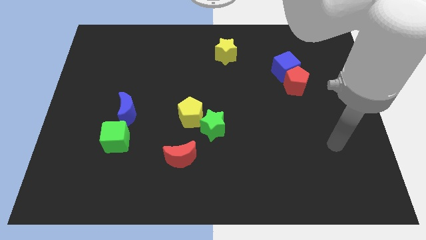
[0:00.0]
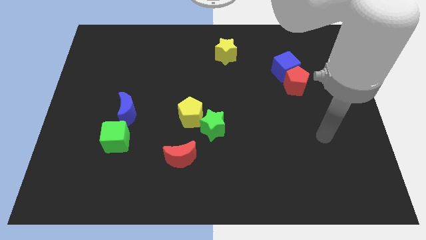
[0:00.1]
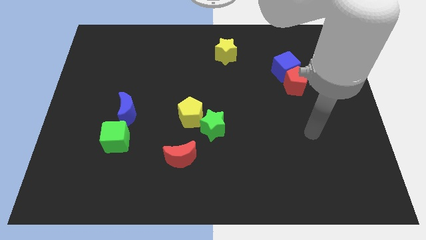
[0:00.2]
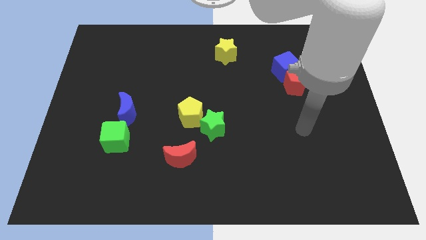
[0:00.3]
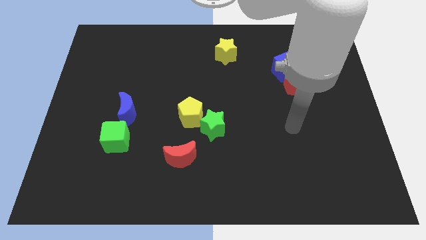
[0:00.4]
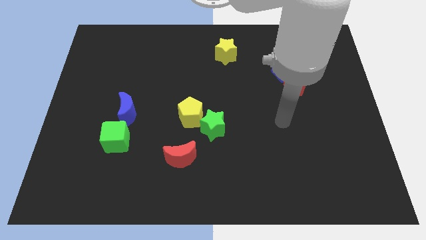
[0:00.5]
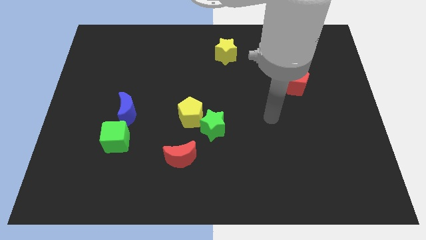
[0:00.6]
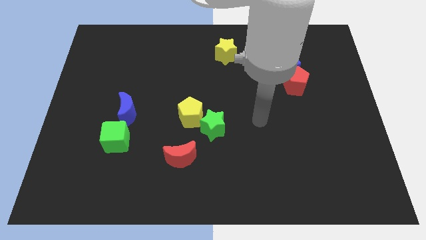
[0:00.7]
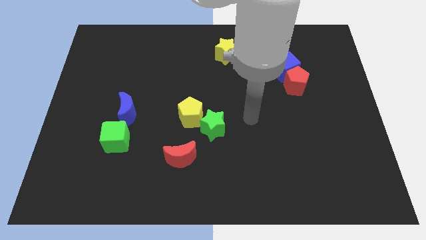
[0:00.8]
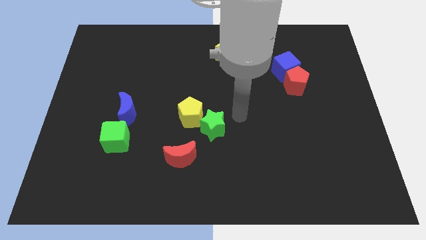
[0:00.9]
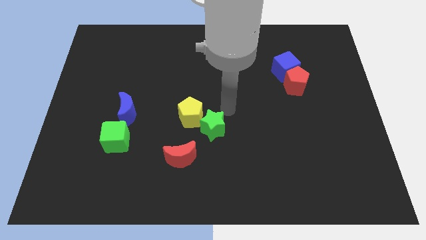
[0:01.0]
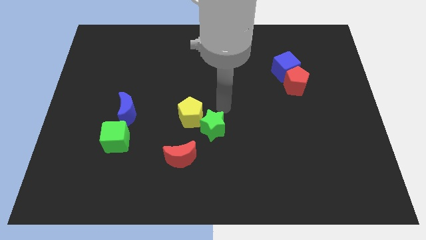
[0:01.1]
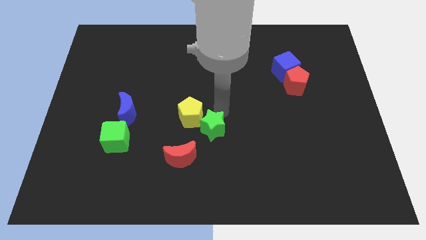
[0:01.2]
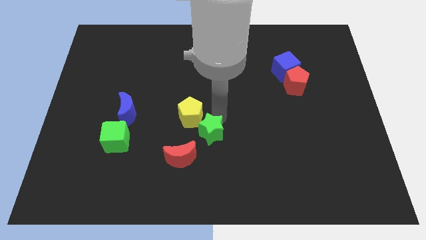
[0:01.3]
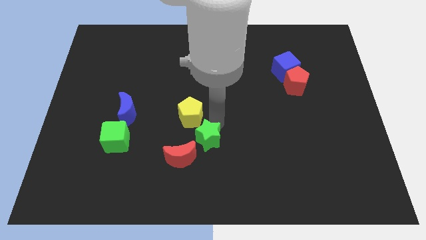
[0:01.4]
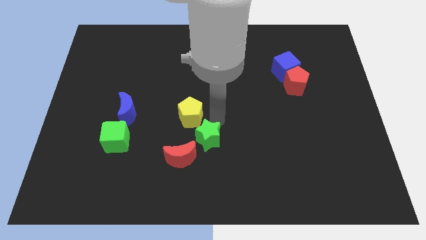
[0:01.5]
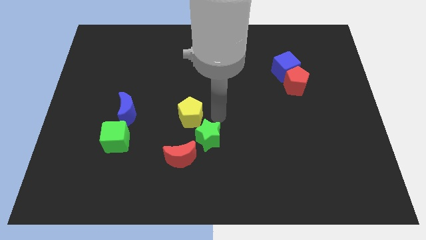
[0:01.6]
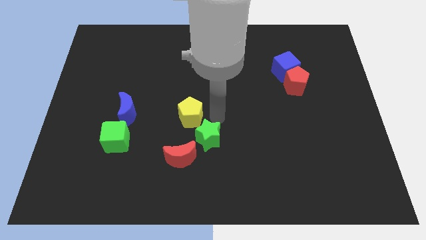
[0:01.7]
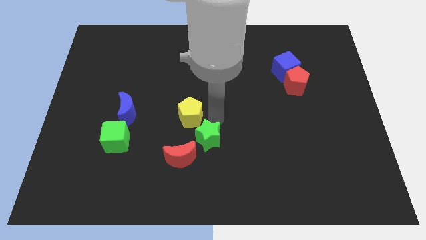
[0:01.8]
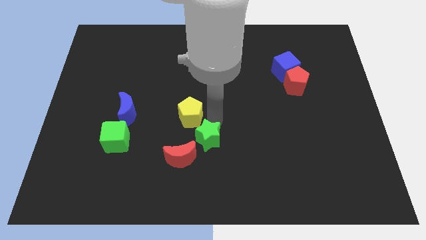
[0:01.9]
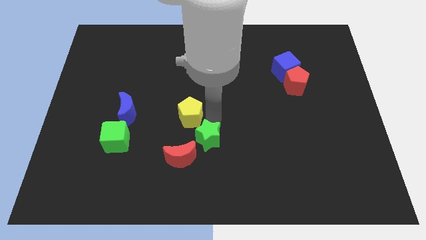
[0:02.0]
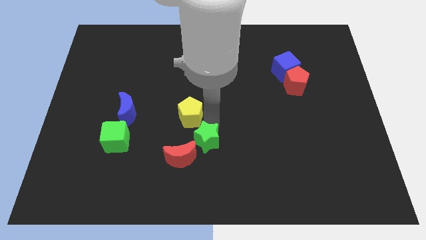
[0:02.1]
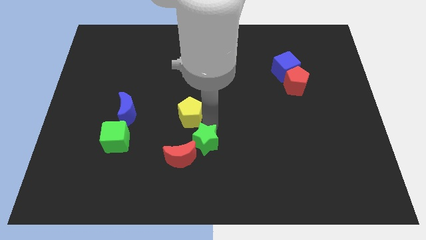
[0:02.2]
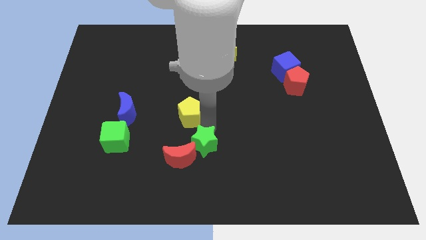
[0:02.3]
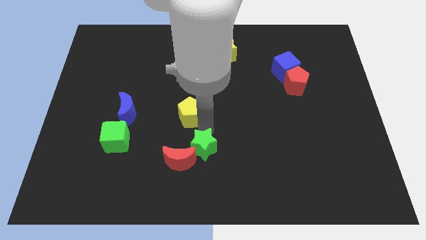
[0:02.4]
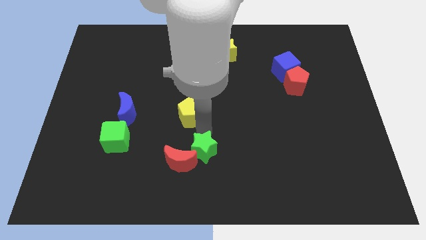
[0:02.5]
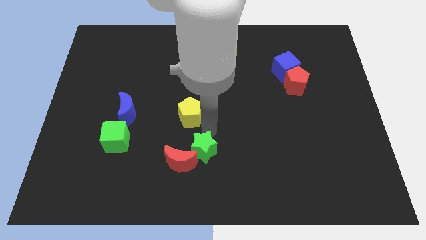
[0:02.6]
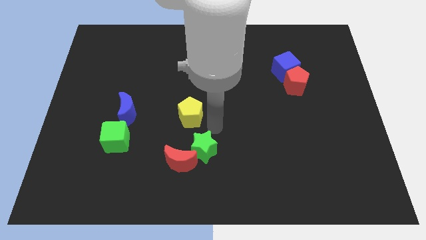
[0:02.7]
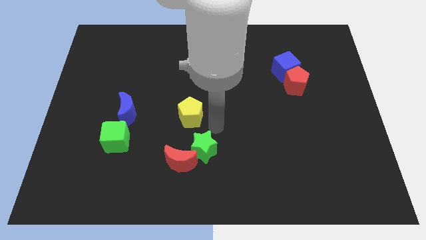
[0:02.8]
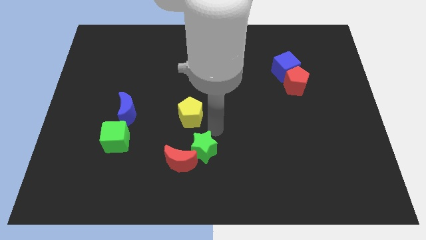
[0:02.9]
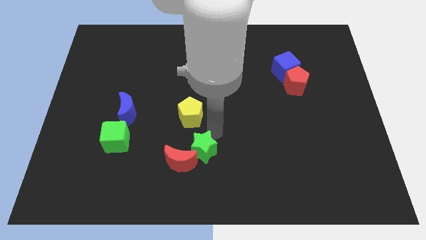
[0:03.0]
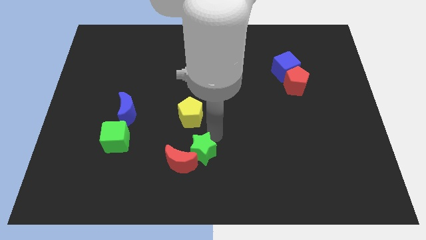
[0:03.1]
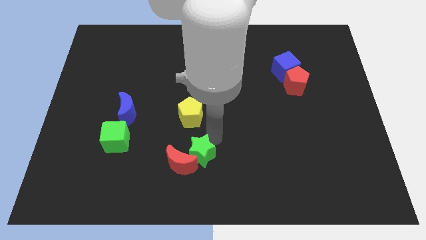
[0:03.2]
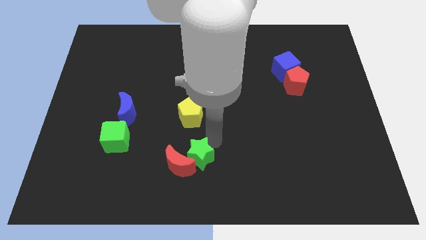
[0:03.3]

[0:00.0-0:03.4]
push the green star downwards and then to the left a little bit

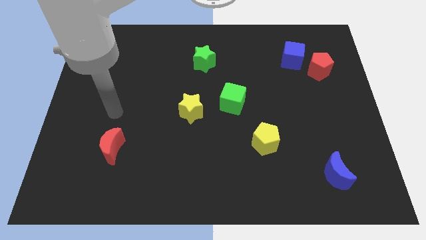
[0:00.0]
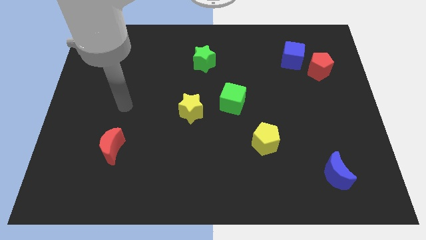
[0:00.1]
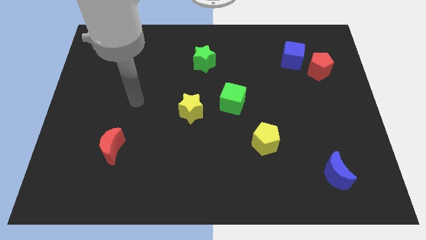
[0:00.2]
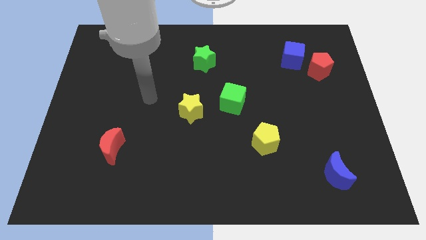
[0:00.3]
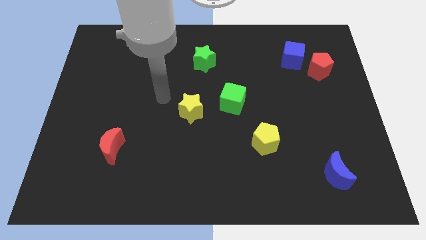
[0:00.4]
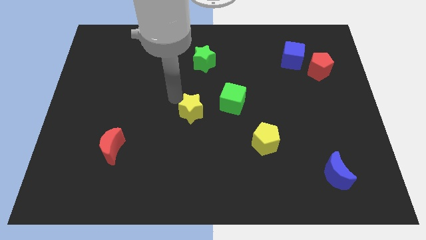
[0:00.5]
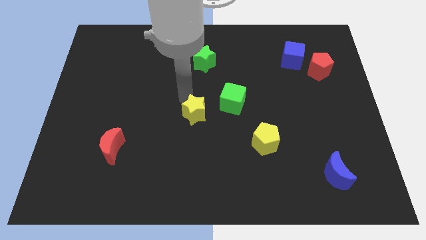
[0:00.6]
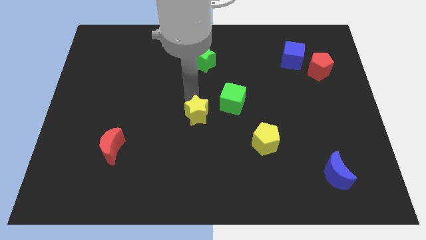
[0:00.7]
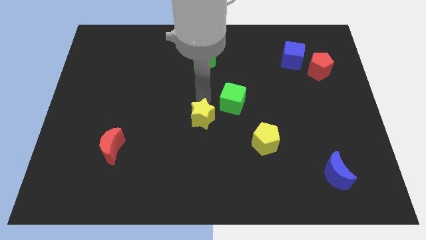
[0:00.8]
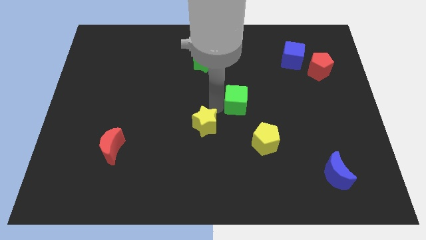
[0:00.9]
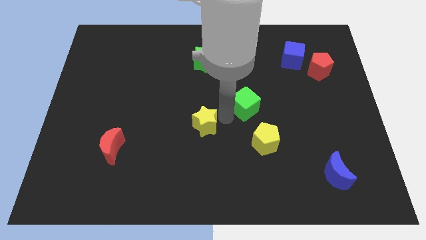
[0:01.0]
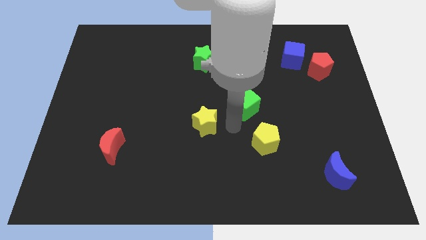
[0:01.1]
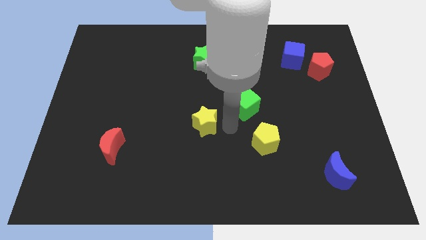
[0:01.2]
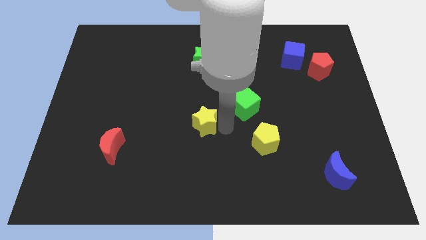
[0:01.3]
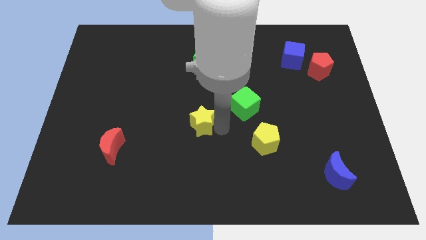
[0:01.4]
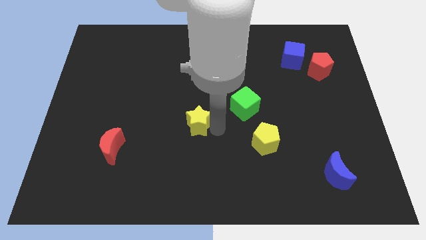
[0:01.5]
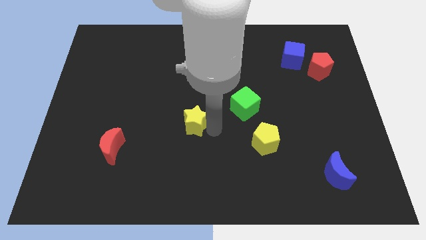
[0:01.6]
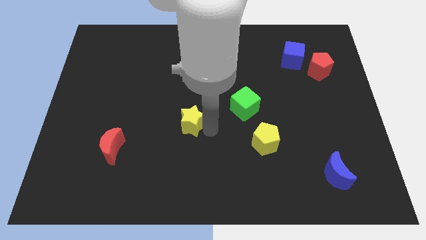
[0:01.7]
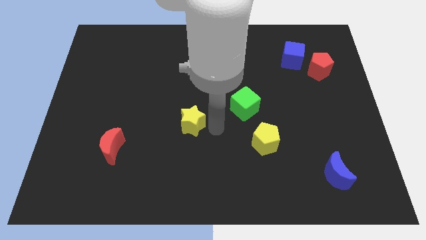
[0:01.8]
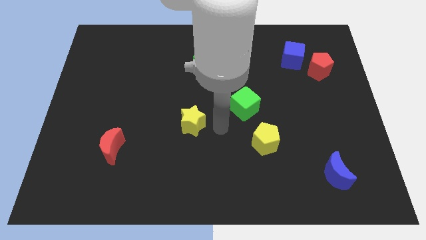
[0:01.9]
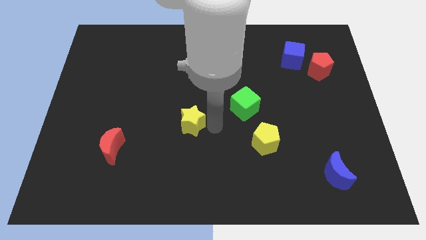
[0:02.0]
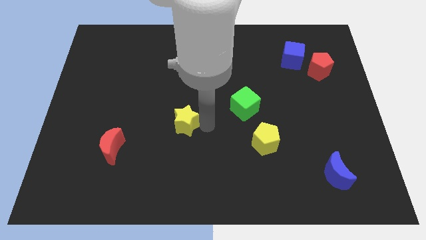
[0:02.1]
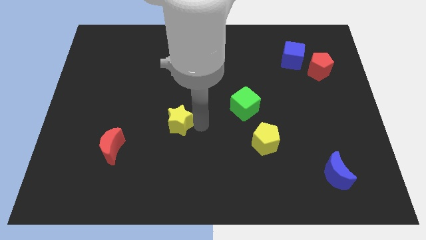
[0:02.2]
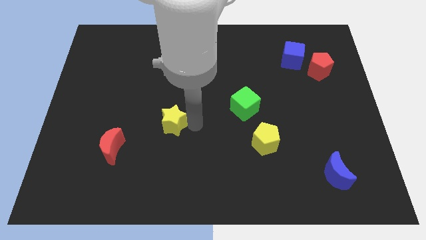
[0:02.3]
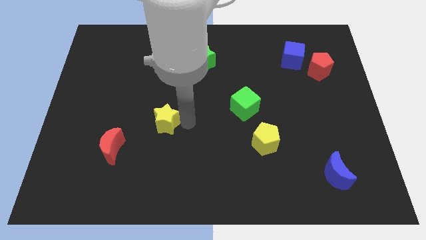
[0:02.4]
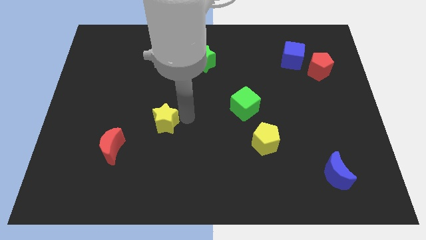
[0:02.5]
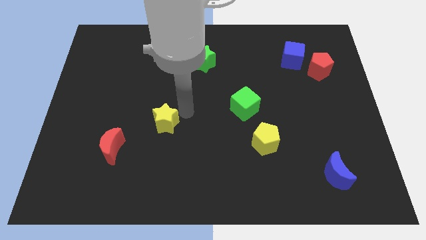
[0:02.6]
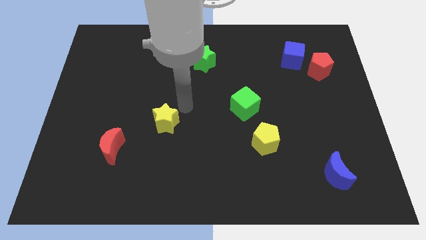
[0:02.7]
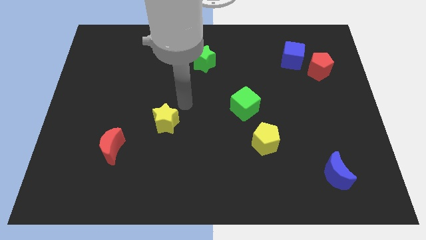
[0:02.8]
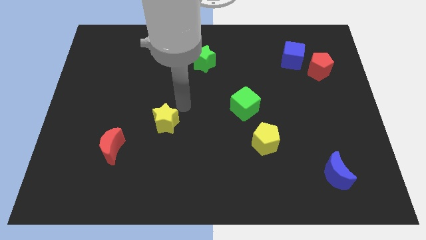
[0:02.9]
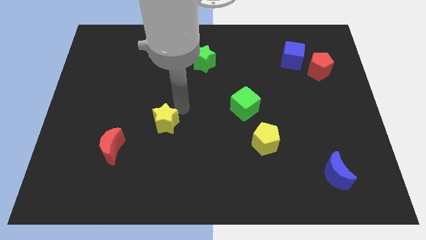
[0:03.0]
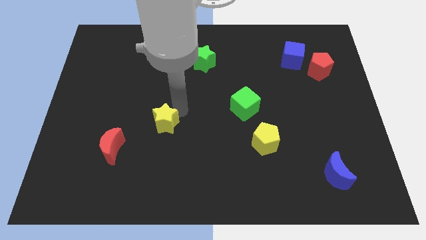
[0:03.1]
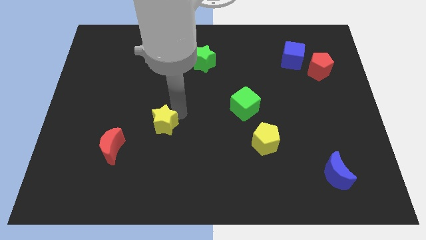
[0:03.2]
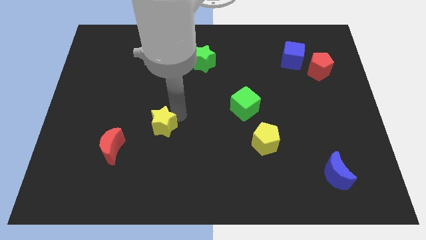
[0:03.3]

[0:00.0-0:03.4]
move the yellow star diagonally down and to the left a little

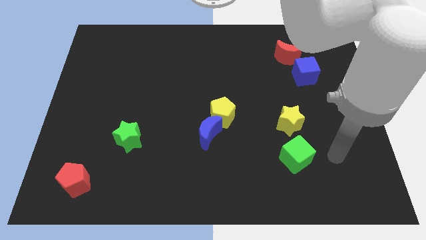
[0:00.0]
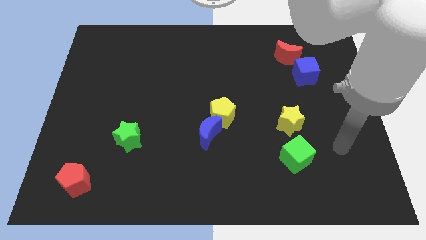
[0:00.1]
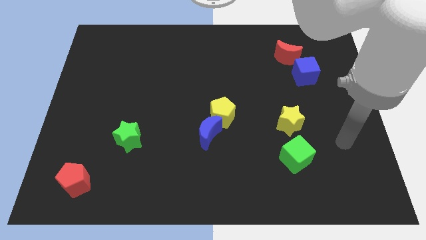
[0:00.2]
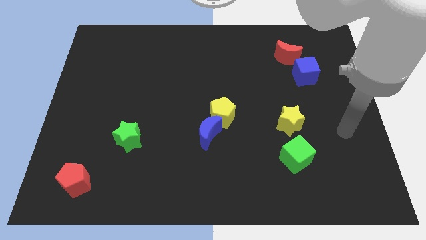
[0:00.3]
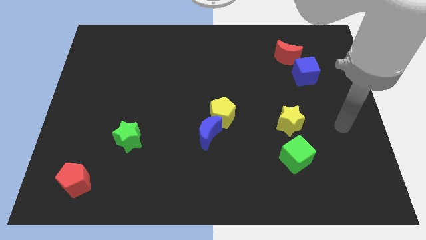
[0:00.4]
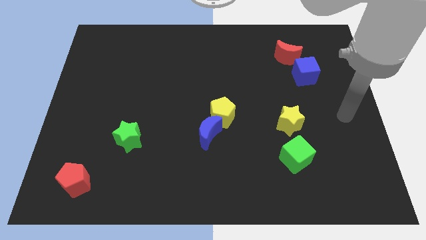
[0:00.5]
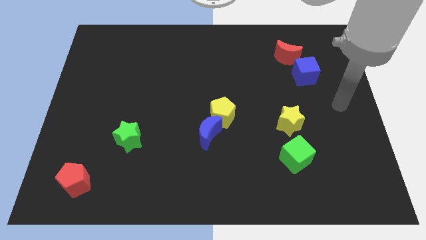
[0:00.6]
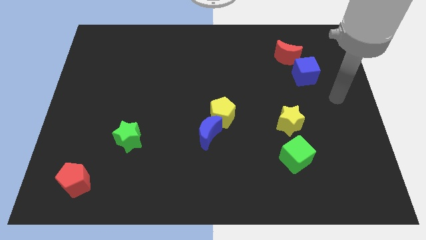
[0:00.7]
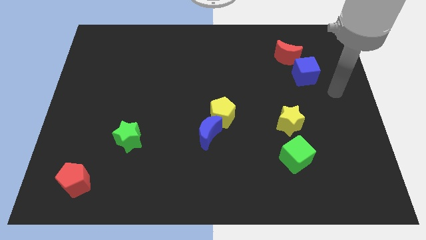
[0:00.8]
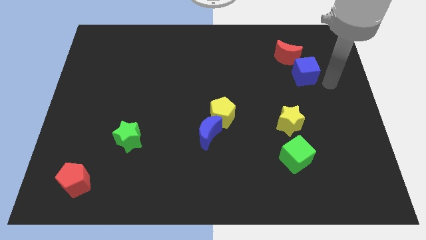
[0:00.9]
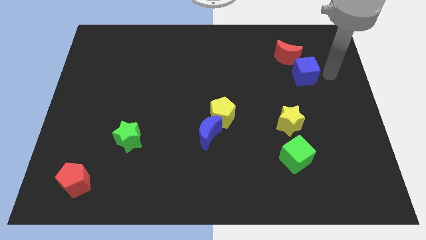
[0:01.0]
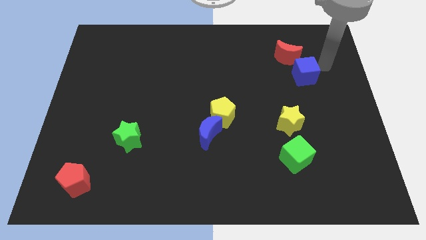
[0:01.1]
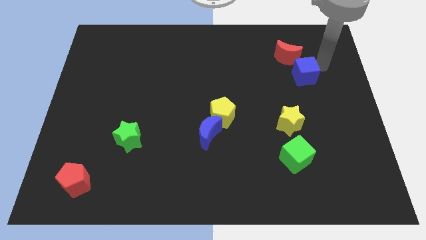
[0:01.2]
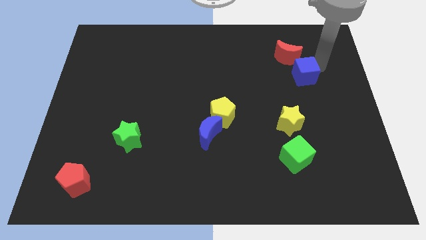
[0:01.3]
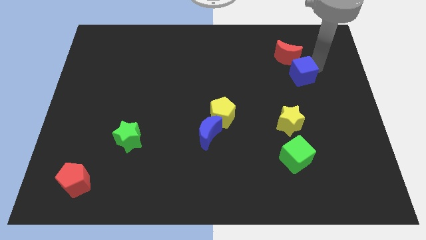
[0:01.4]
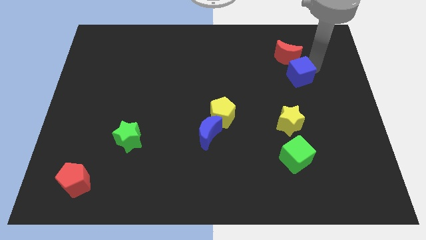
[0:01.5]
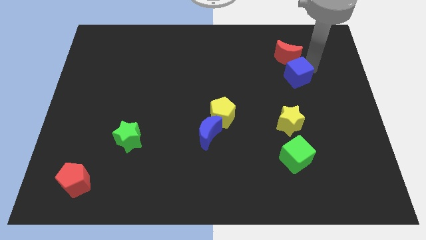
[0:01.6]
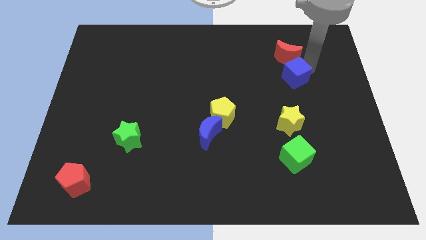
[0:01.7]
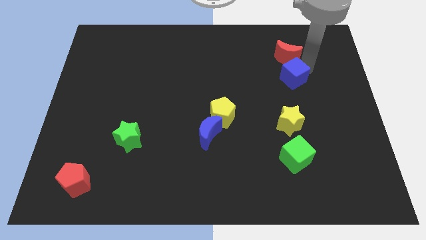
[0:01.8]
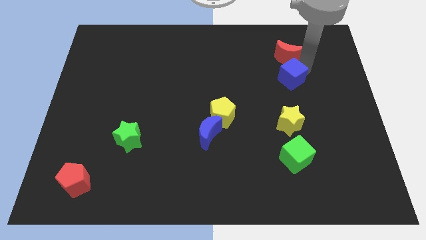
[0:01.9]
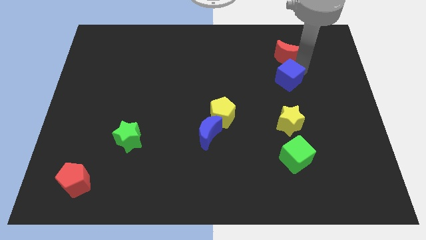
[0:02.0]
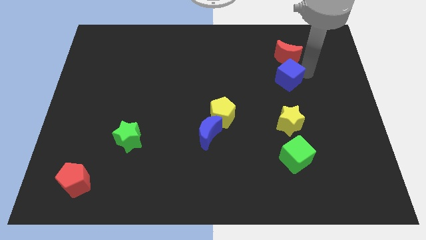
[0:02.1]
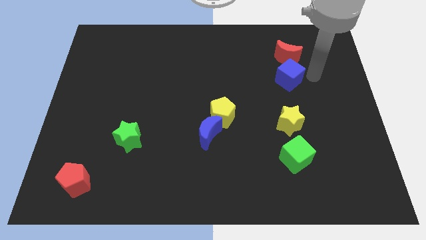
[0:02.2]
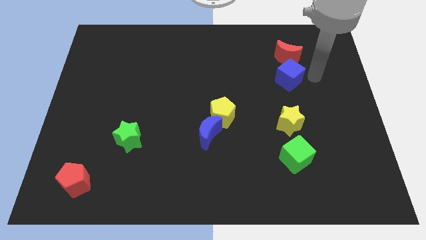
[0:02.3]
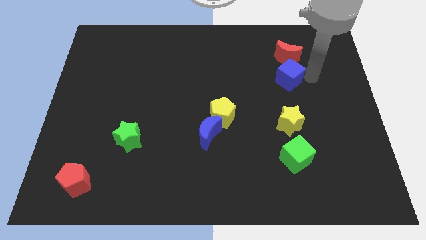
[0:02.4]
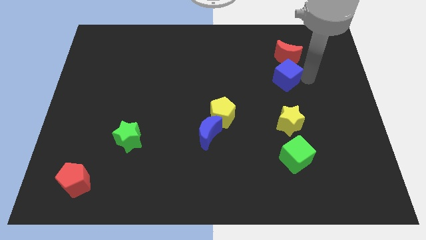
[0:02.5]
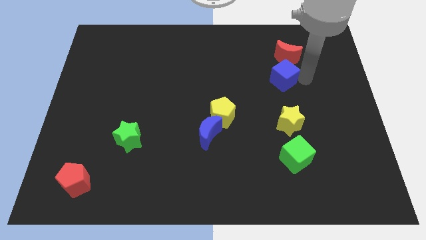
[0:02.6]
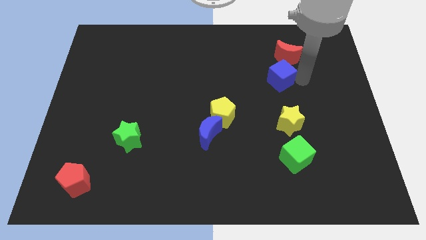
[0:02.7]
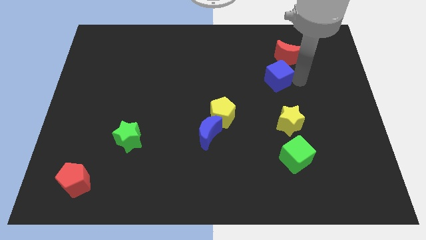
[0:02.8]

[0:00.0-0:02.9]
move the blue cube a little left
